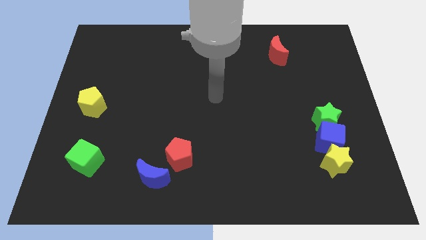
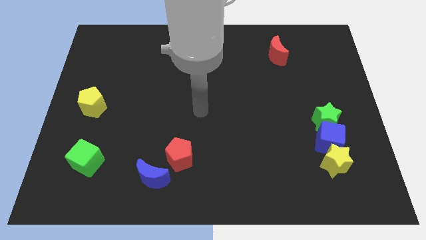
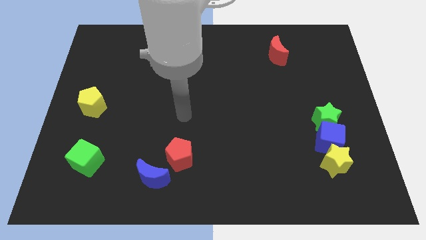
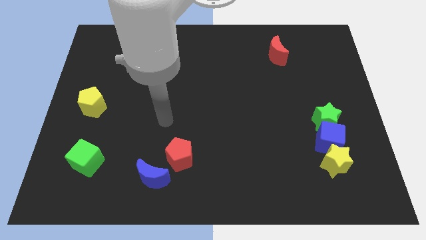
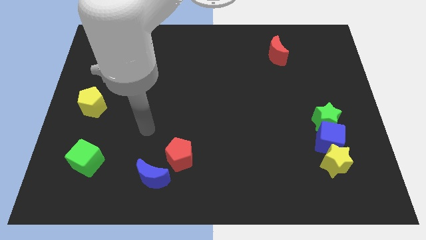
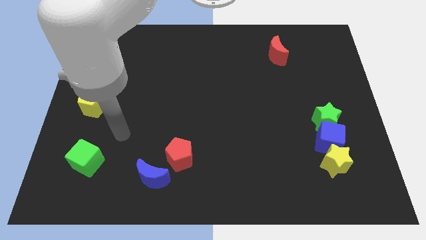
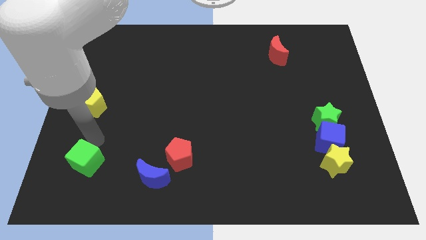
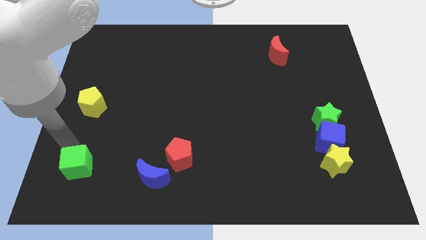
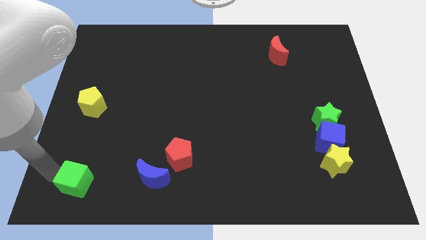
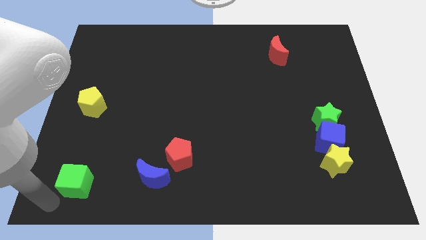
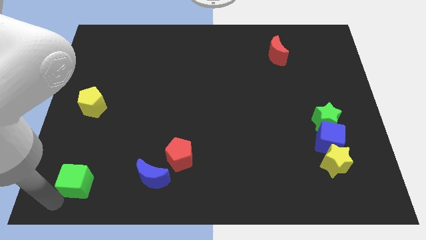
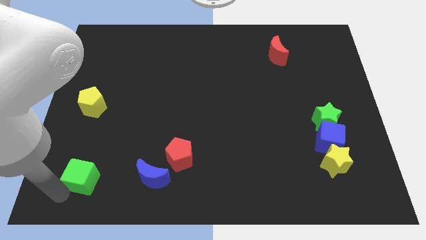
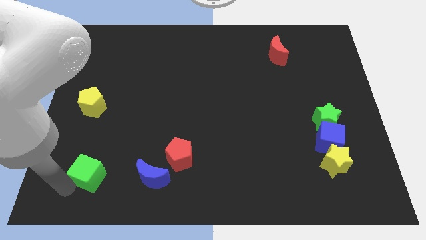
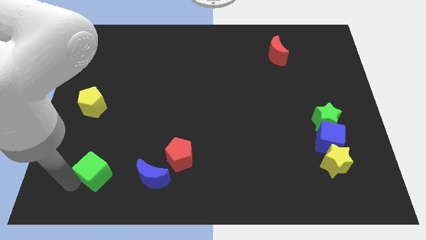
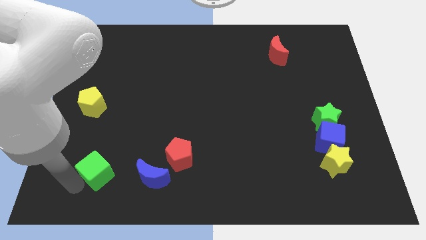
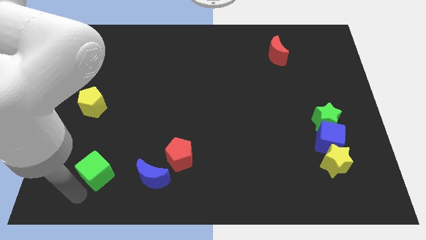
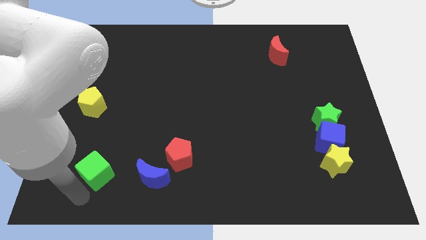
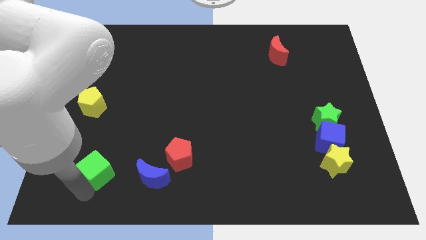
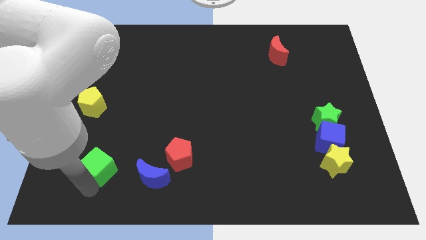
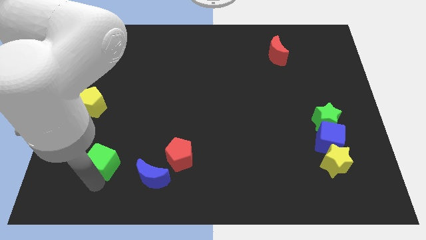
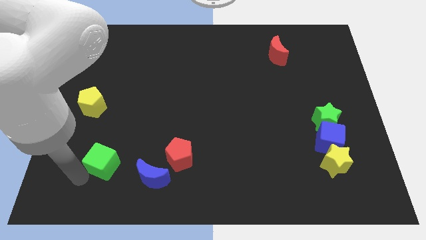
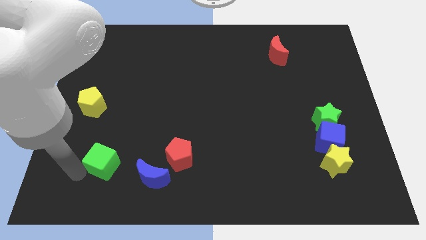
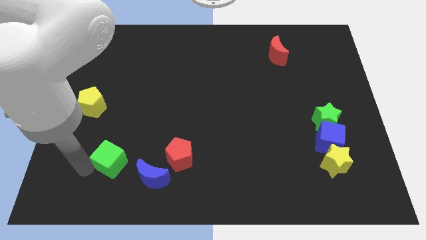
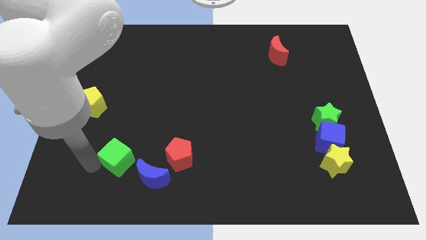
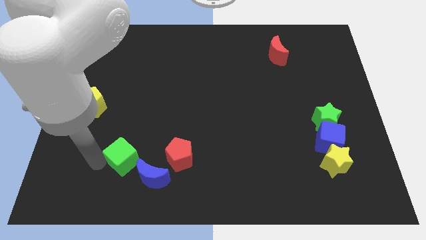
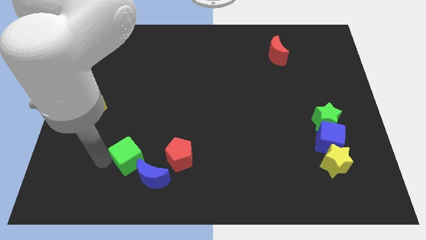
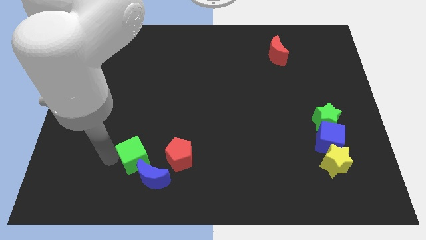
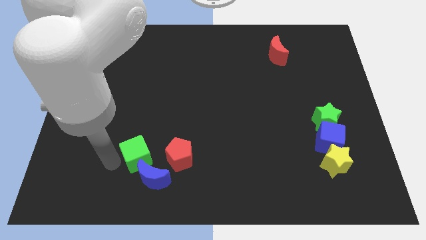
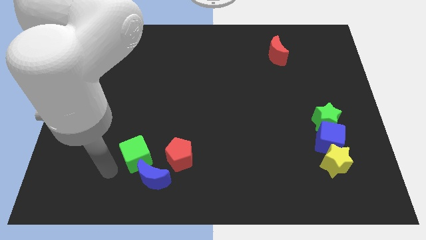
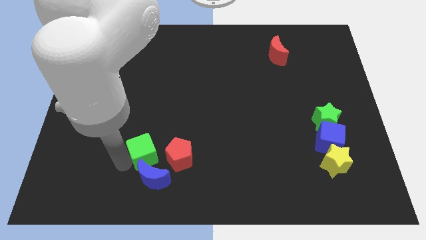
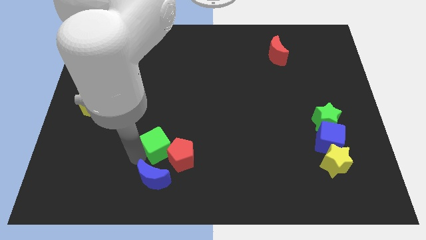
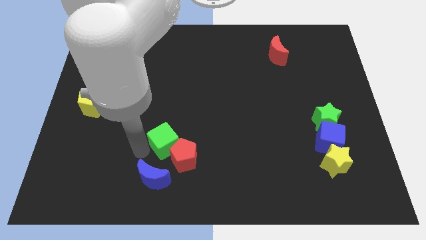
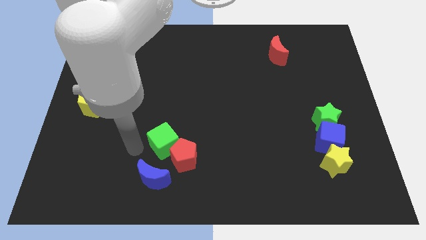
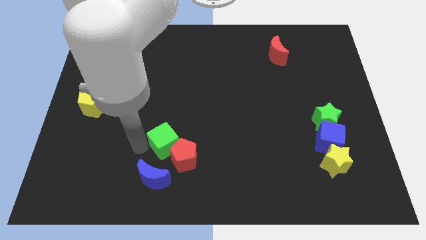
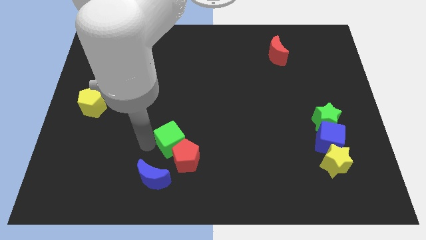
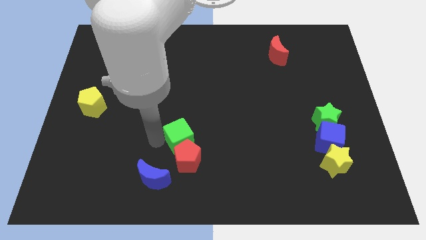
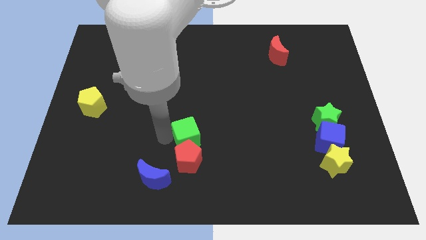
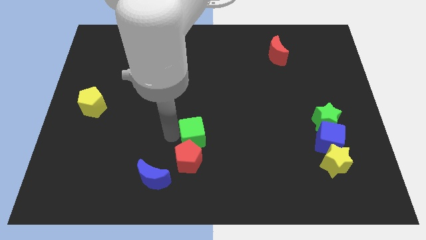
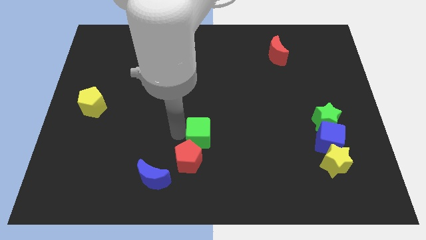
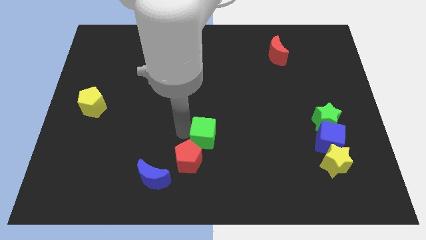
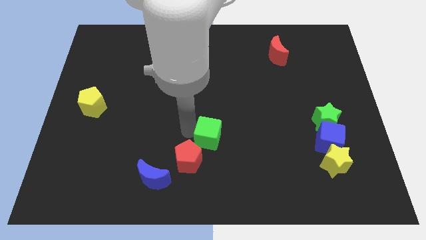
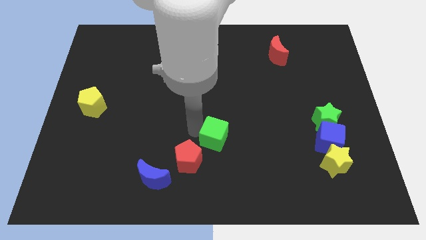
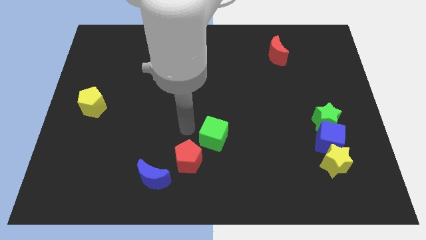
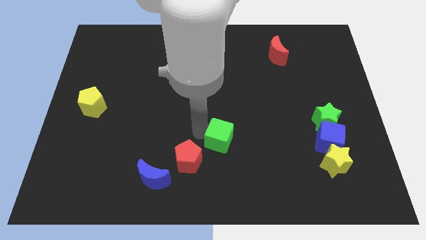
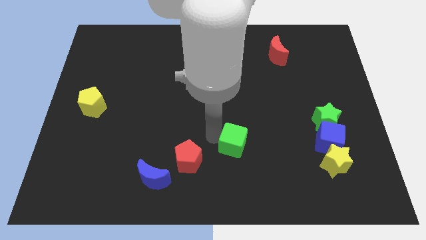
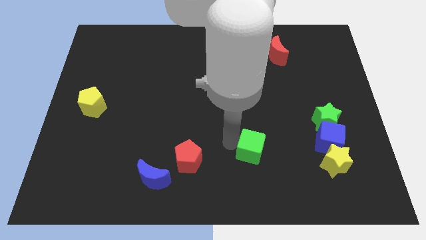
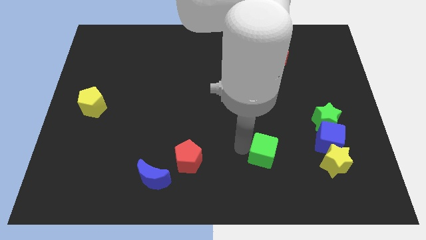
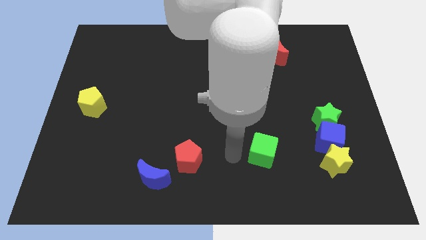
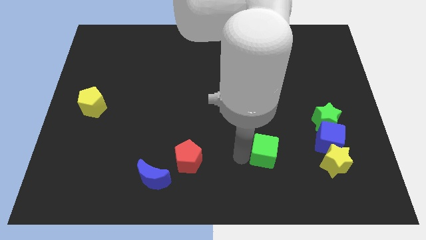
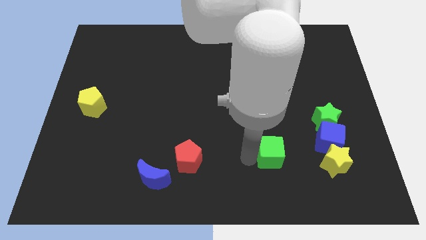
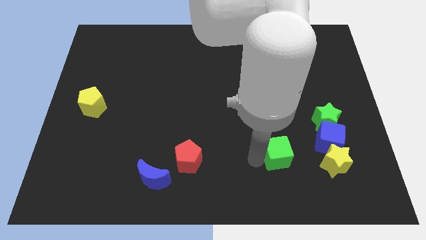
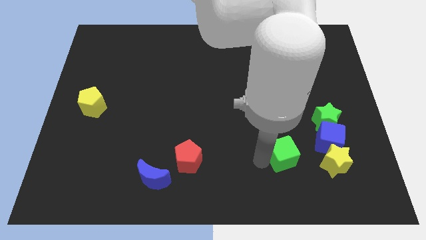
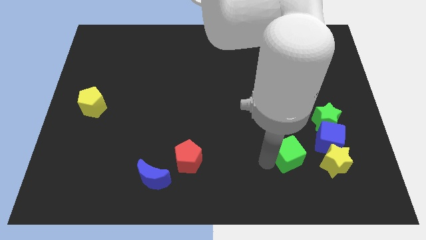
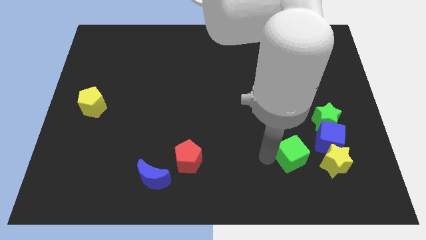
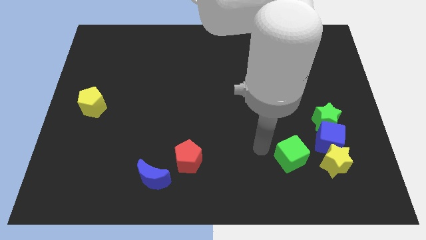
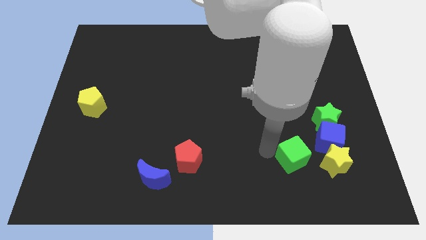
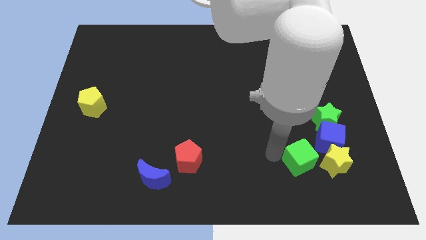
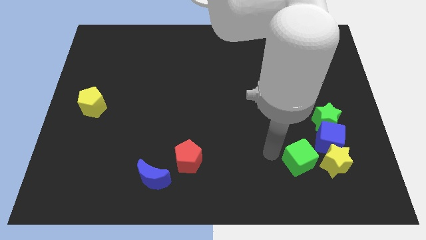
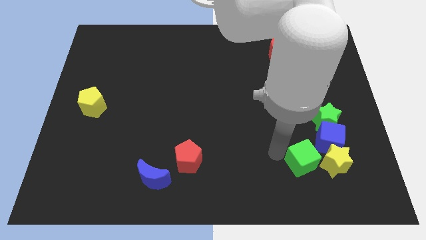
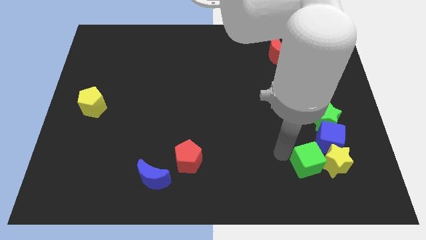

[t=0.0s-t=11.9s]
slide the green cube towards the yellow star
